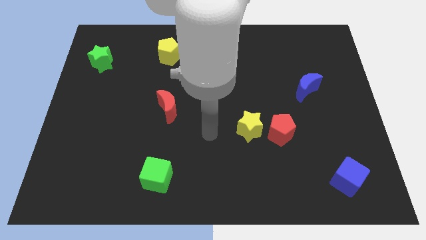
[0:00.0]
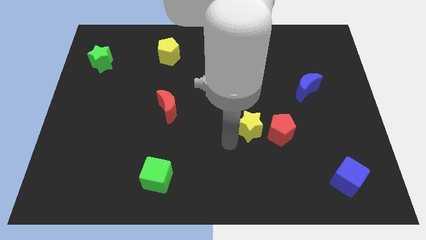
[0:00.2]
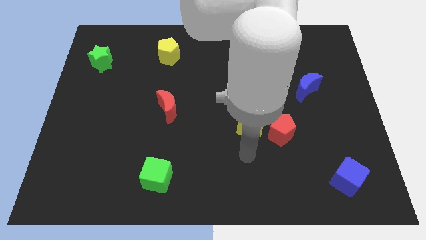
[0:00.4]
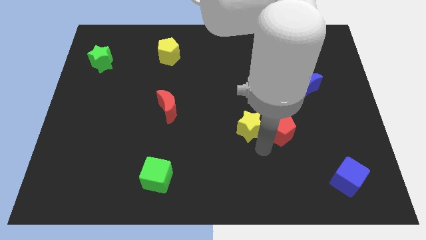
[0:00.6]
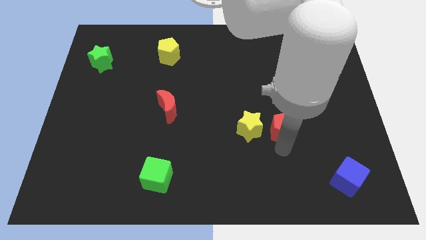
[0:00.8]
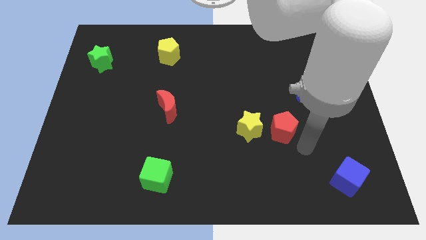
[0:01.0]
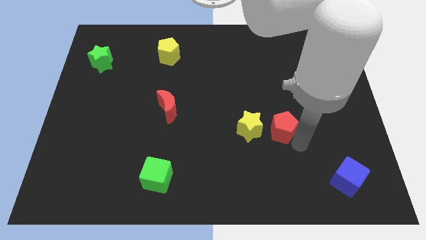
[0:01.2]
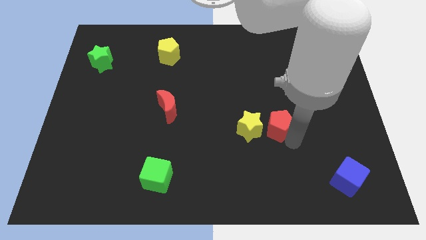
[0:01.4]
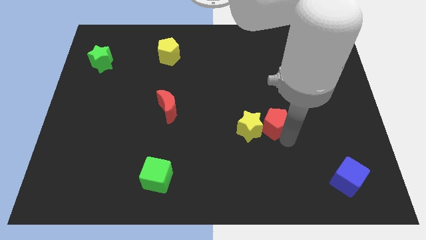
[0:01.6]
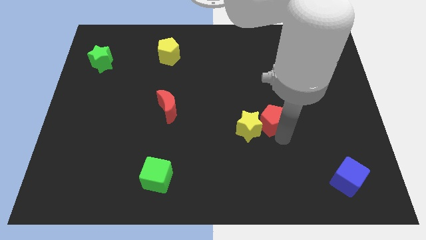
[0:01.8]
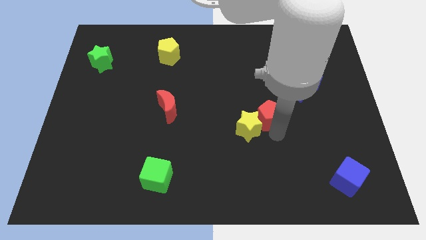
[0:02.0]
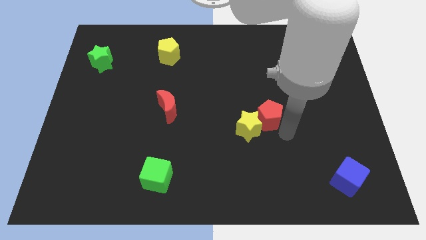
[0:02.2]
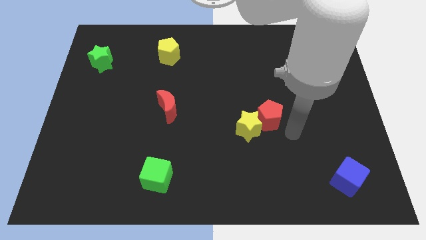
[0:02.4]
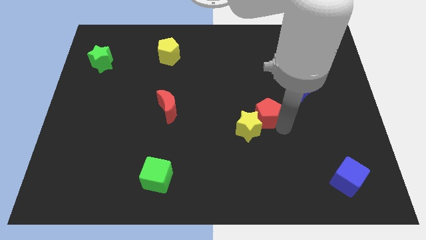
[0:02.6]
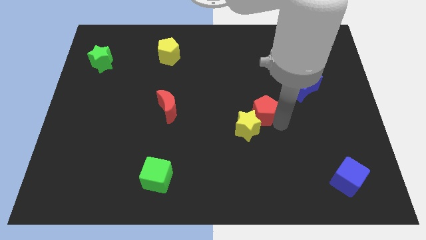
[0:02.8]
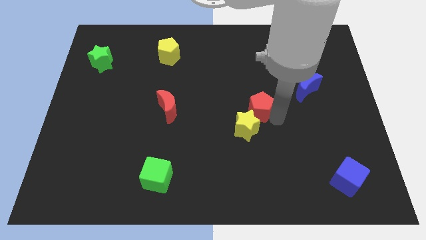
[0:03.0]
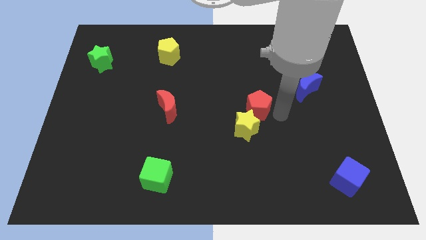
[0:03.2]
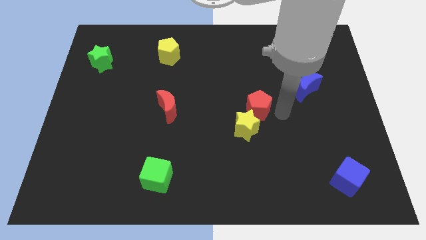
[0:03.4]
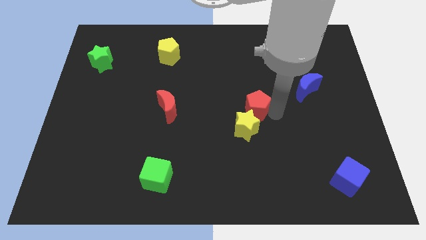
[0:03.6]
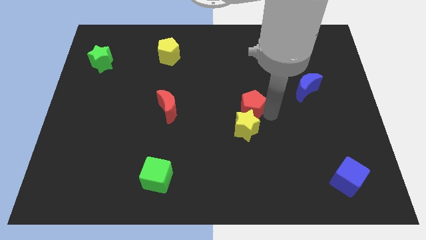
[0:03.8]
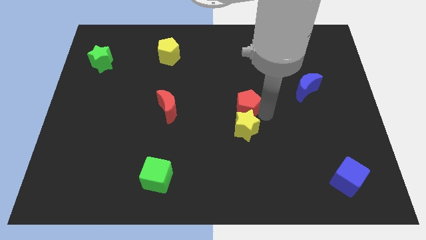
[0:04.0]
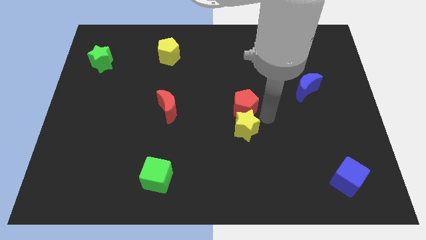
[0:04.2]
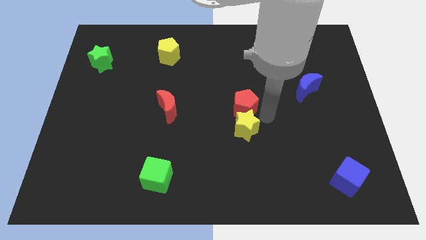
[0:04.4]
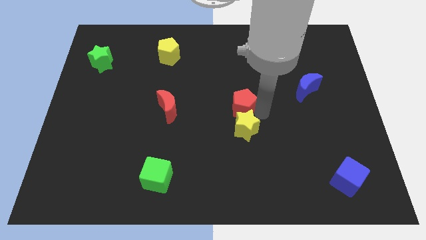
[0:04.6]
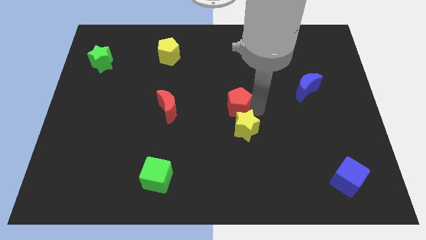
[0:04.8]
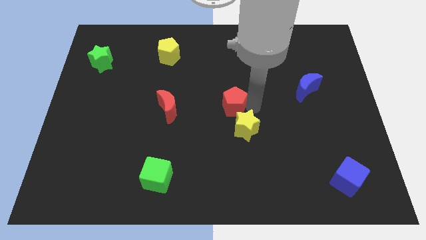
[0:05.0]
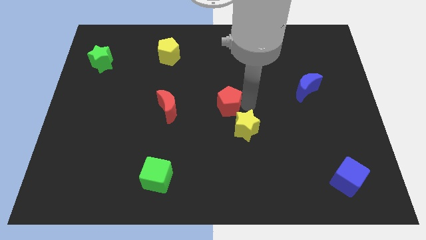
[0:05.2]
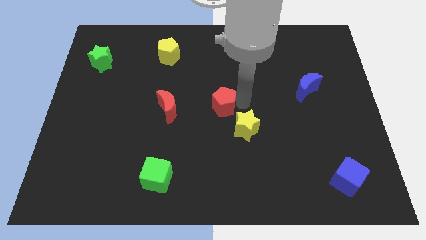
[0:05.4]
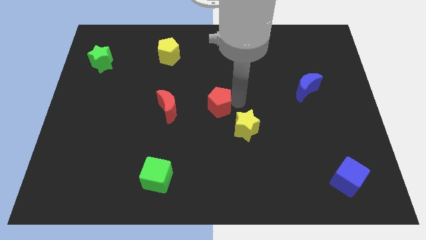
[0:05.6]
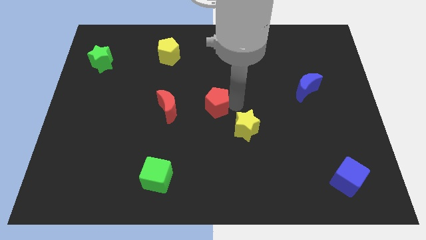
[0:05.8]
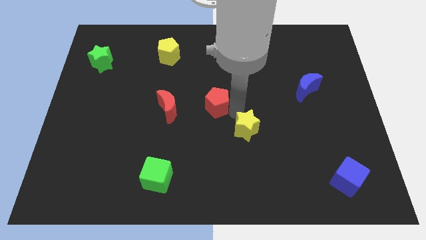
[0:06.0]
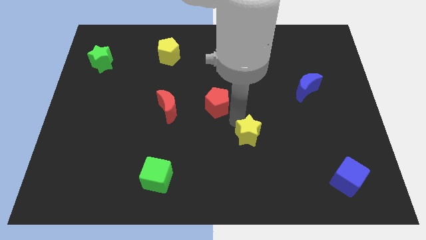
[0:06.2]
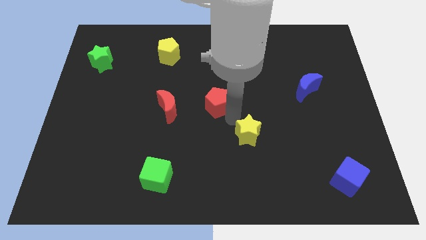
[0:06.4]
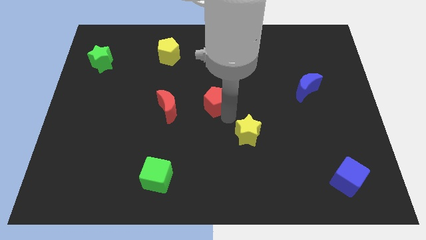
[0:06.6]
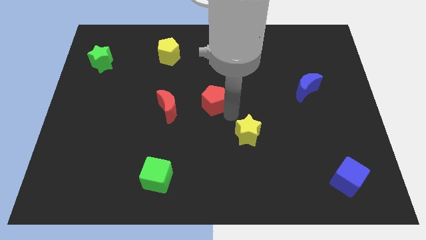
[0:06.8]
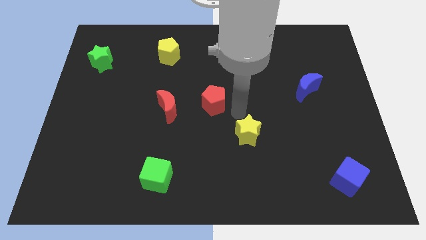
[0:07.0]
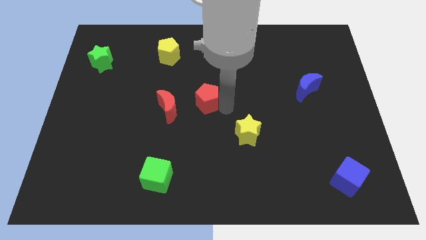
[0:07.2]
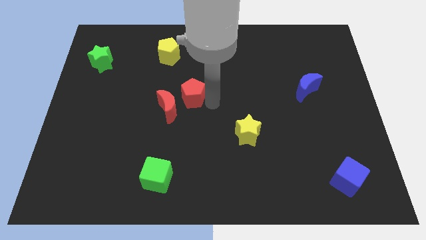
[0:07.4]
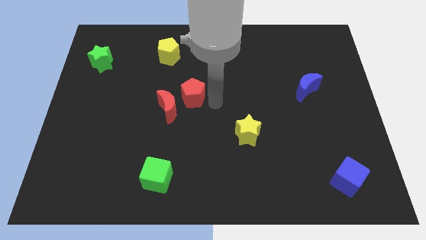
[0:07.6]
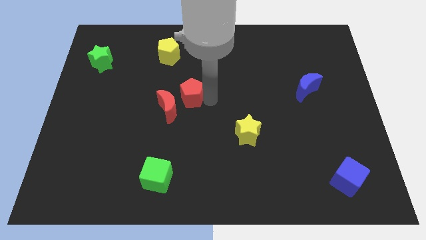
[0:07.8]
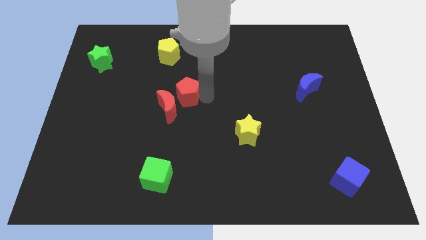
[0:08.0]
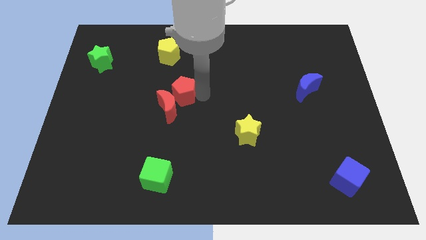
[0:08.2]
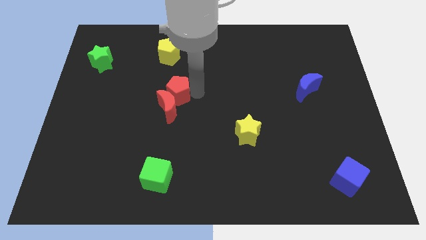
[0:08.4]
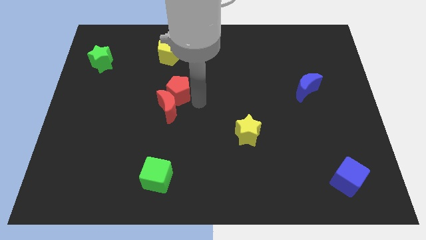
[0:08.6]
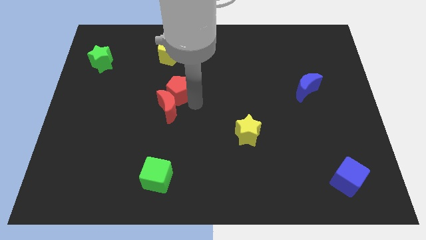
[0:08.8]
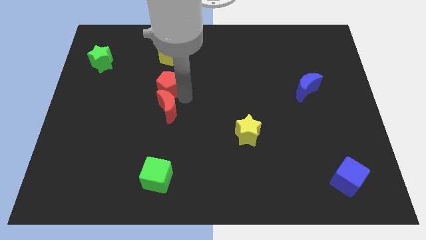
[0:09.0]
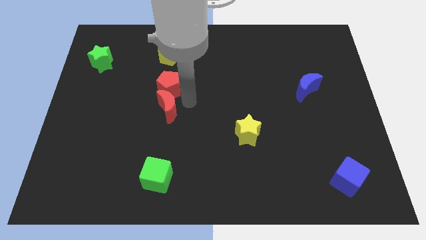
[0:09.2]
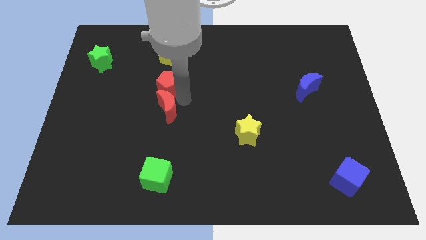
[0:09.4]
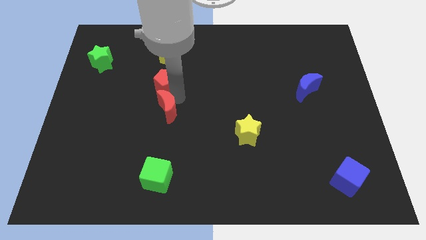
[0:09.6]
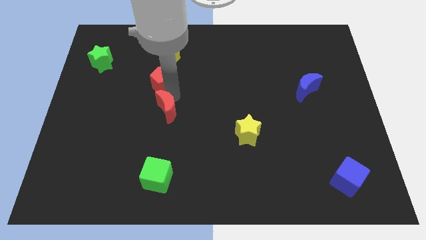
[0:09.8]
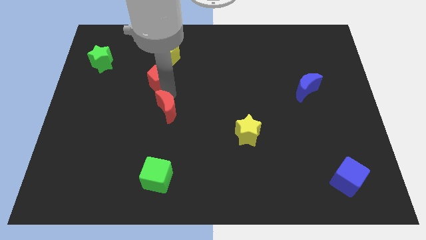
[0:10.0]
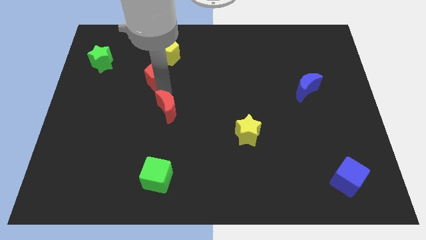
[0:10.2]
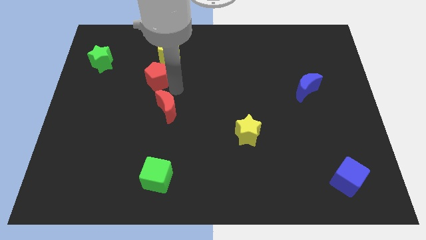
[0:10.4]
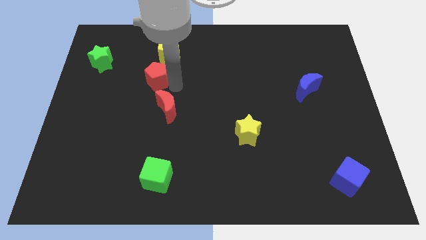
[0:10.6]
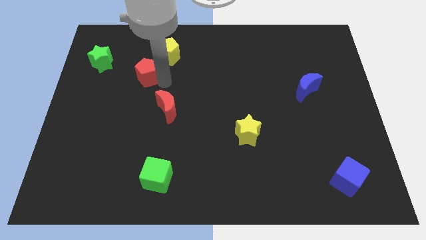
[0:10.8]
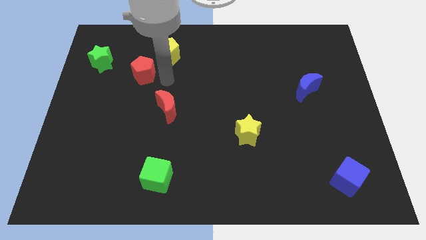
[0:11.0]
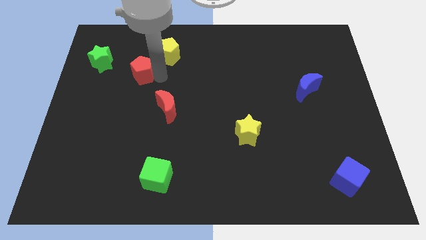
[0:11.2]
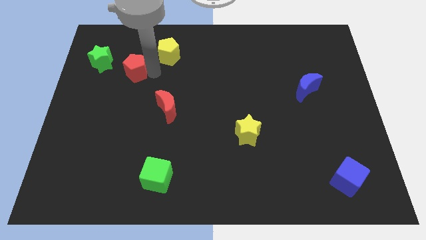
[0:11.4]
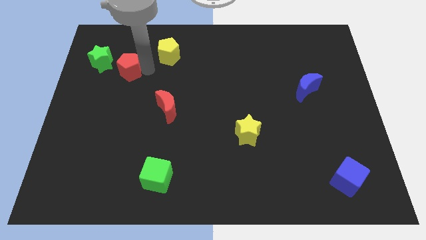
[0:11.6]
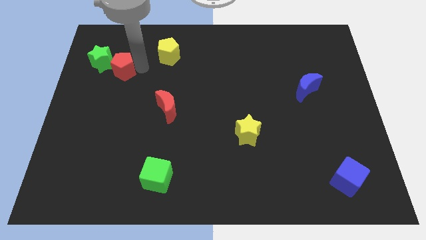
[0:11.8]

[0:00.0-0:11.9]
put the red pentagon next to the green star

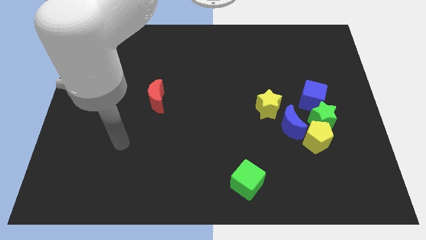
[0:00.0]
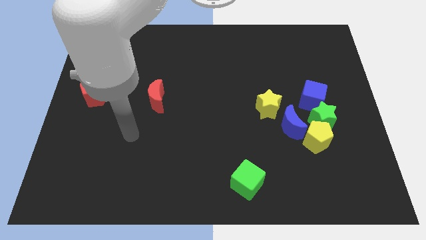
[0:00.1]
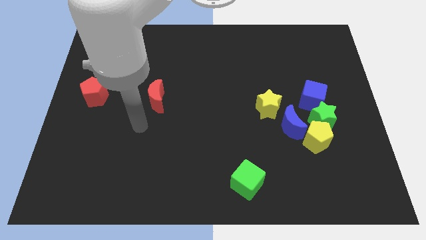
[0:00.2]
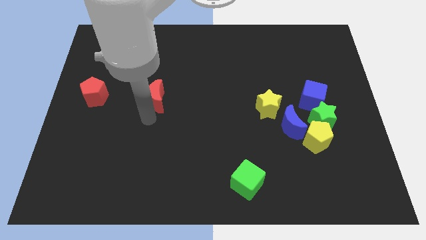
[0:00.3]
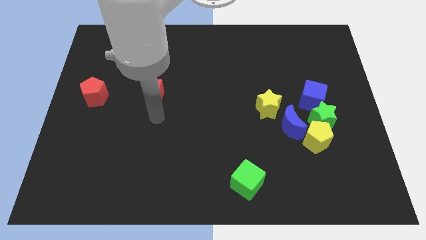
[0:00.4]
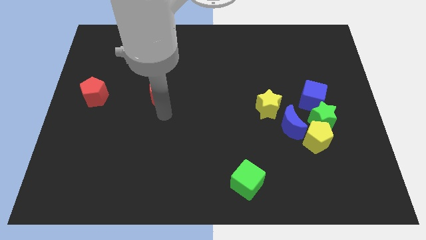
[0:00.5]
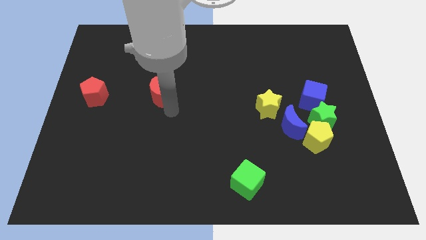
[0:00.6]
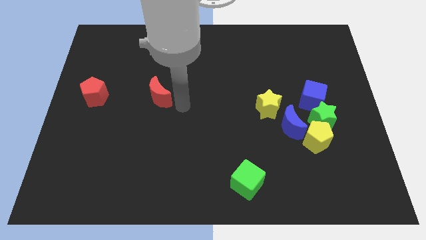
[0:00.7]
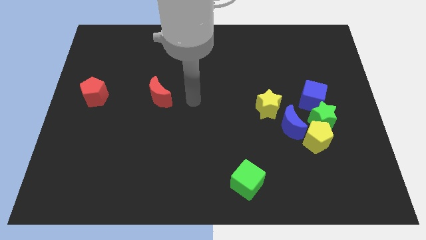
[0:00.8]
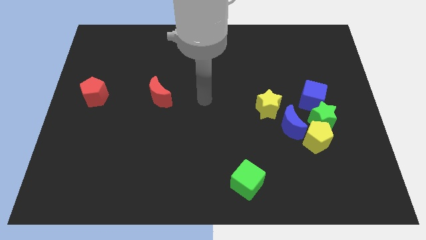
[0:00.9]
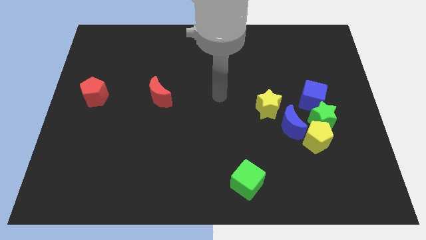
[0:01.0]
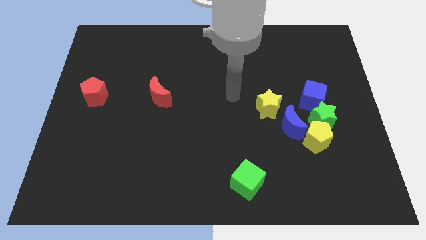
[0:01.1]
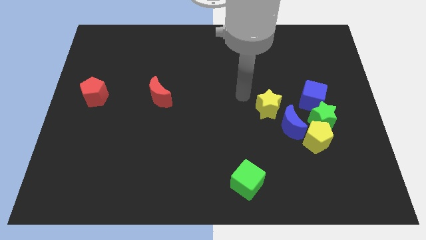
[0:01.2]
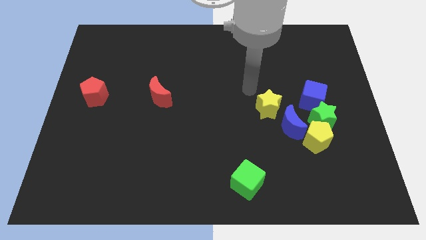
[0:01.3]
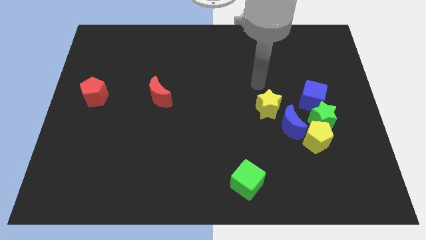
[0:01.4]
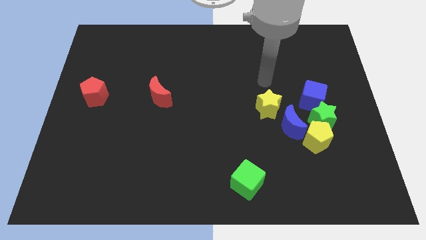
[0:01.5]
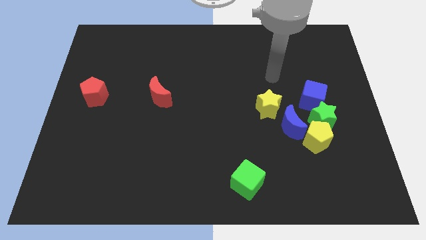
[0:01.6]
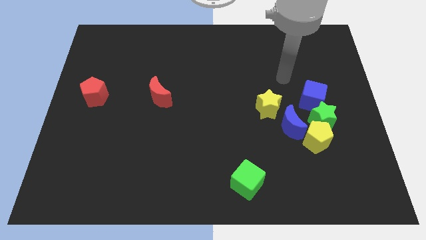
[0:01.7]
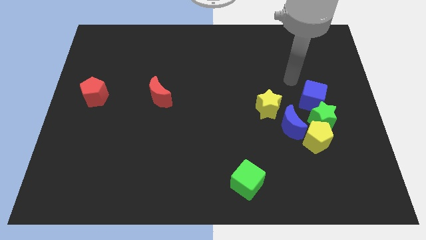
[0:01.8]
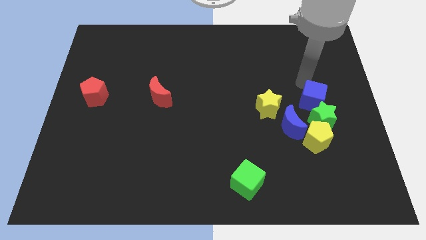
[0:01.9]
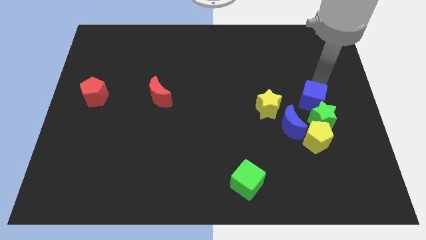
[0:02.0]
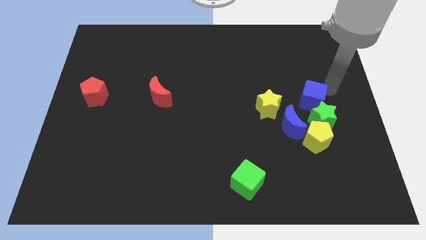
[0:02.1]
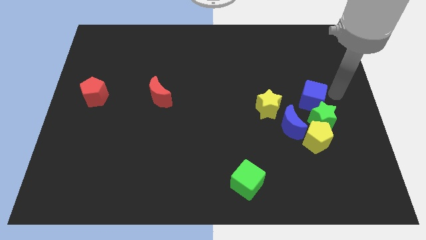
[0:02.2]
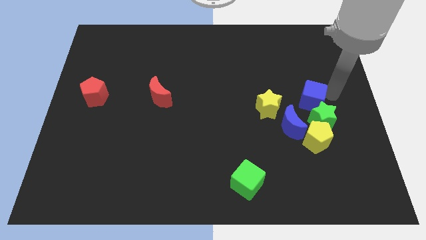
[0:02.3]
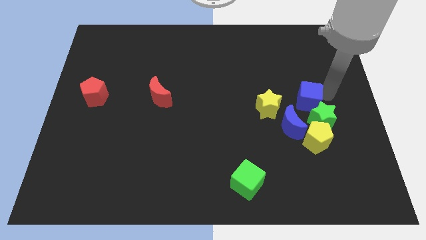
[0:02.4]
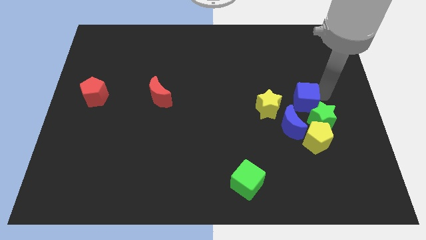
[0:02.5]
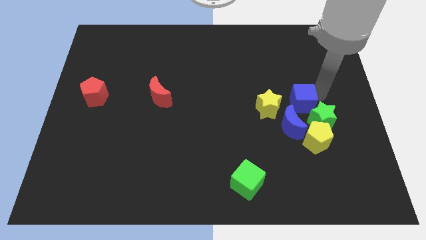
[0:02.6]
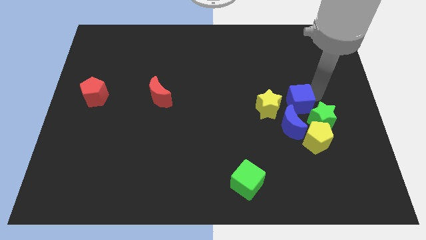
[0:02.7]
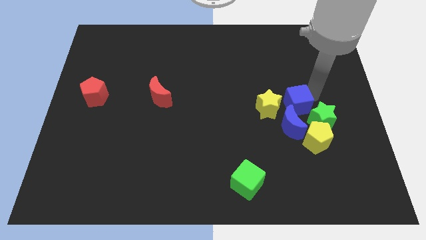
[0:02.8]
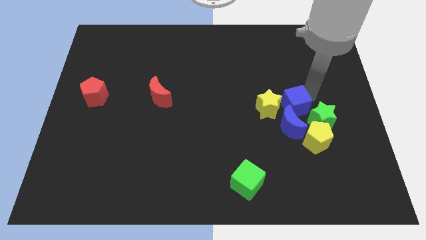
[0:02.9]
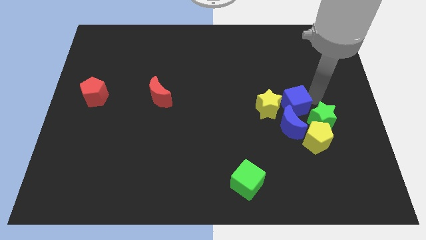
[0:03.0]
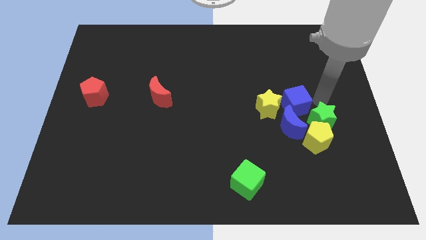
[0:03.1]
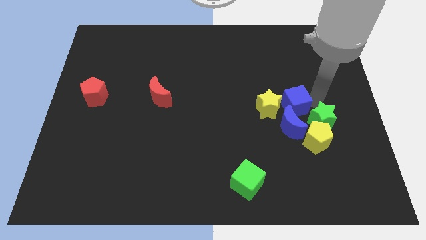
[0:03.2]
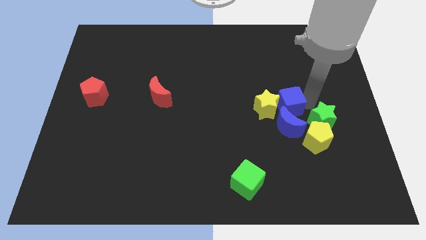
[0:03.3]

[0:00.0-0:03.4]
push the blue cube to the yellow star
